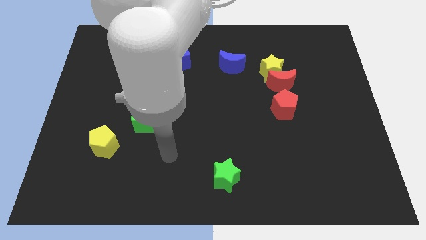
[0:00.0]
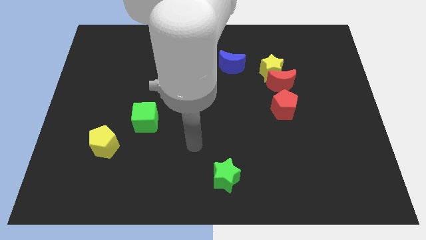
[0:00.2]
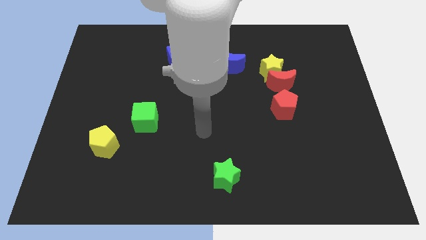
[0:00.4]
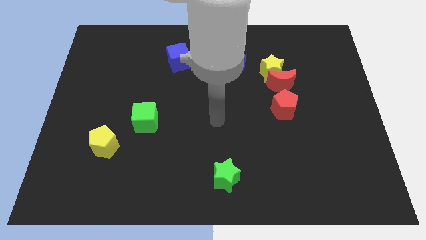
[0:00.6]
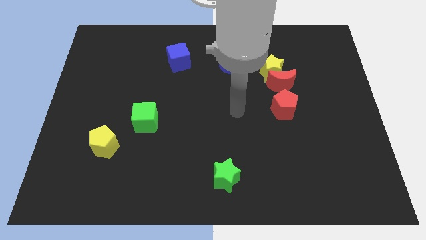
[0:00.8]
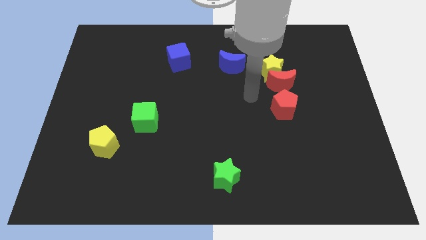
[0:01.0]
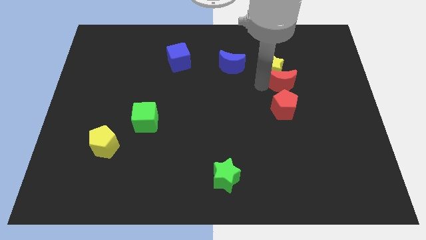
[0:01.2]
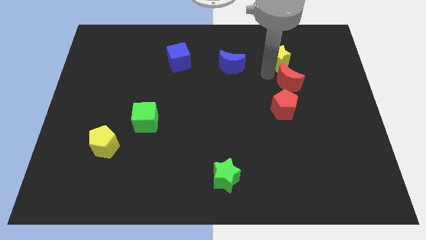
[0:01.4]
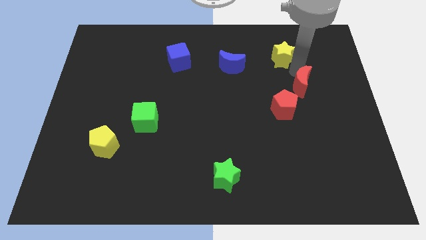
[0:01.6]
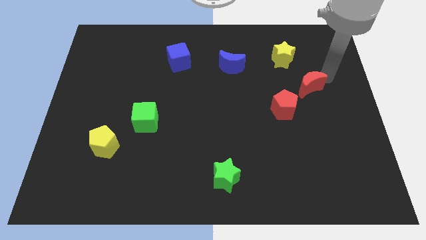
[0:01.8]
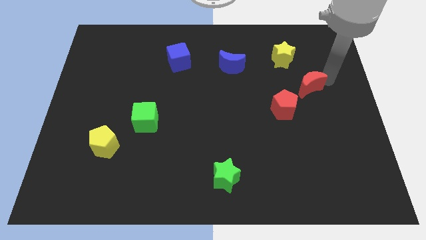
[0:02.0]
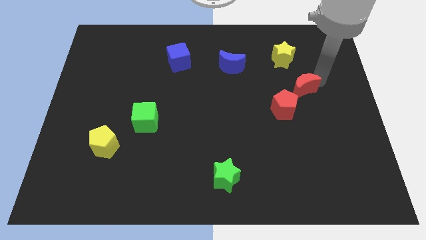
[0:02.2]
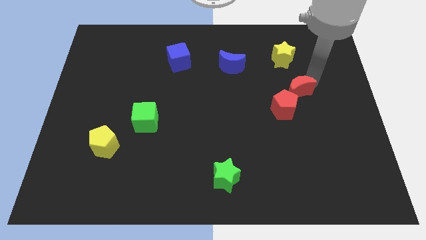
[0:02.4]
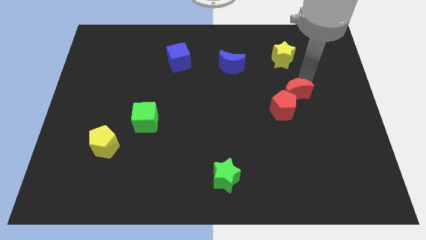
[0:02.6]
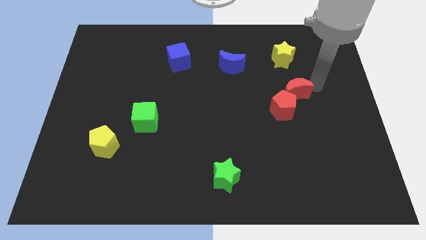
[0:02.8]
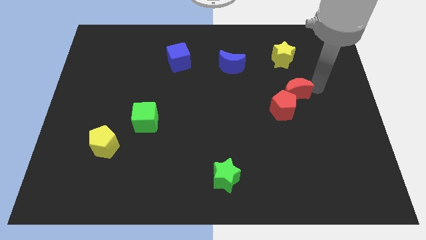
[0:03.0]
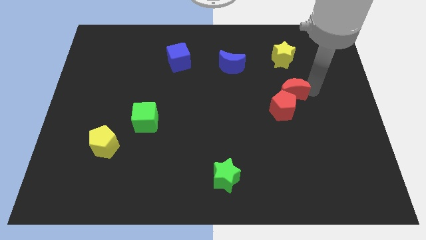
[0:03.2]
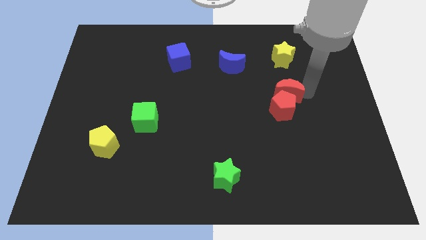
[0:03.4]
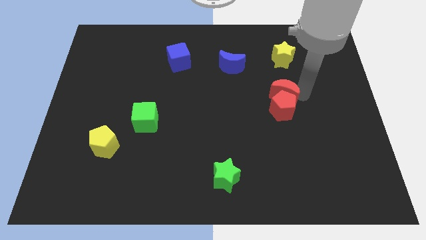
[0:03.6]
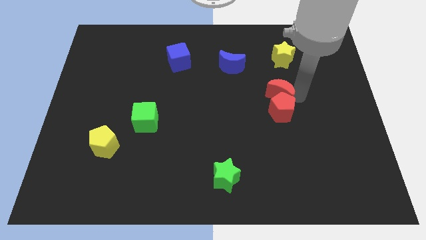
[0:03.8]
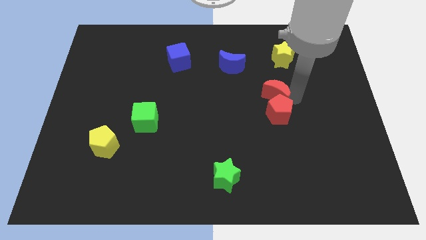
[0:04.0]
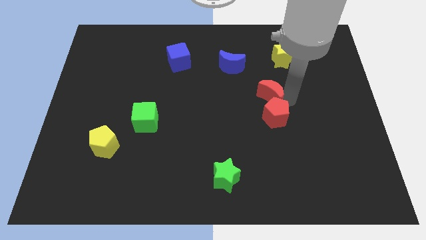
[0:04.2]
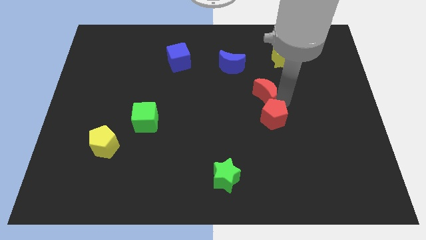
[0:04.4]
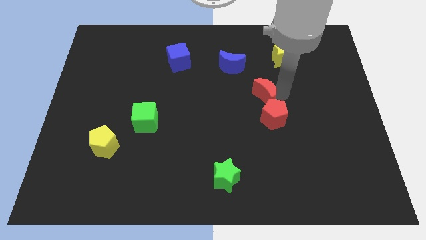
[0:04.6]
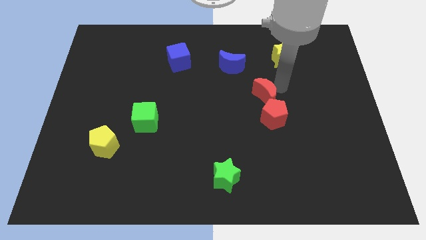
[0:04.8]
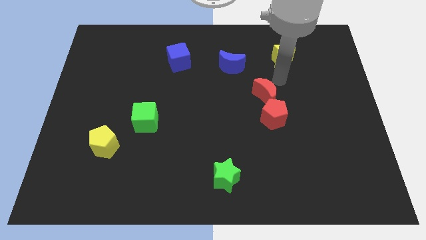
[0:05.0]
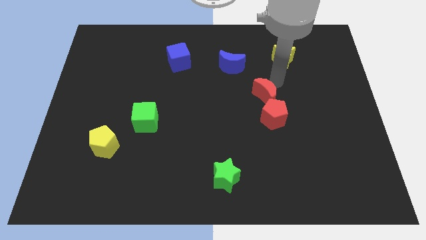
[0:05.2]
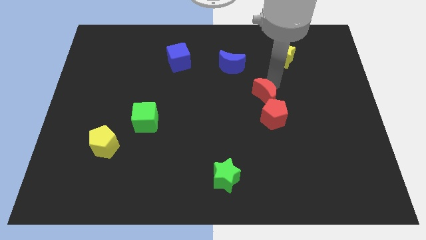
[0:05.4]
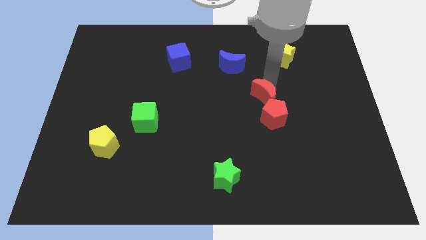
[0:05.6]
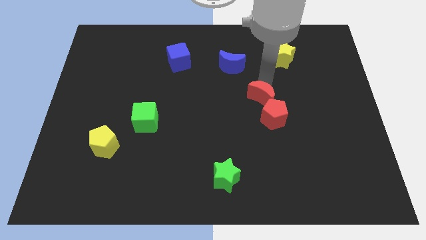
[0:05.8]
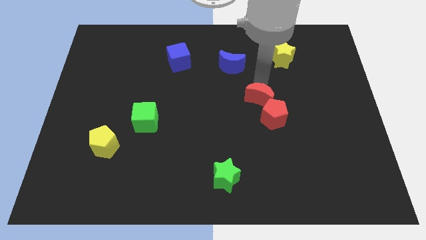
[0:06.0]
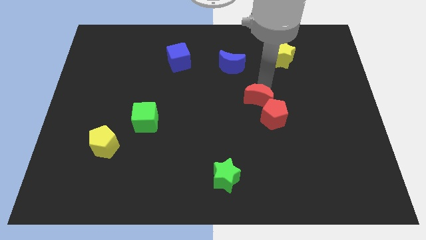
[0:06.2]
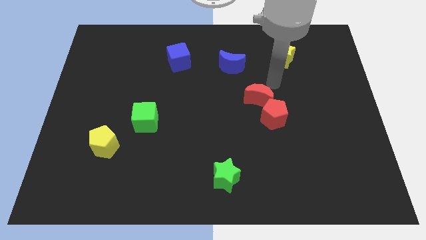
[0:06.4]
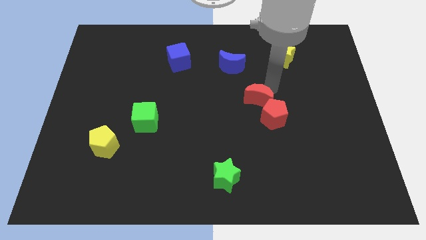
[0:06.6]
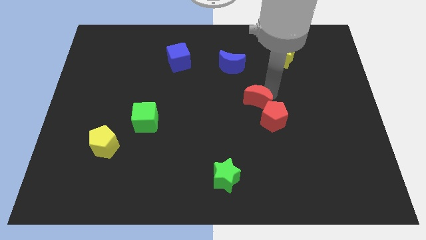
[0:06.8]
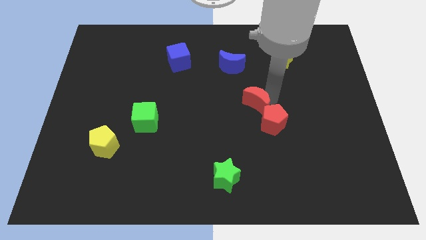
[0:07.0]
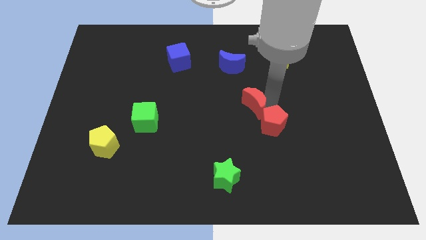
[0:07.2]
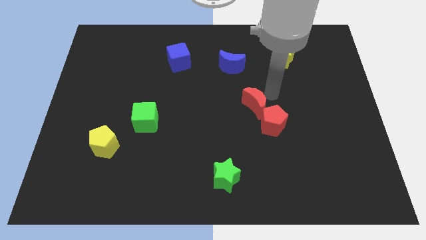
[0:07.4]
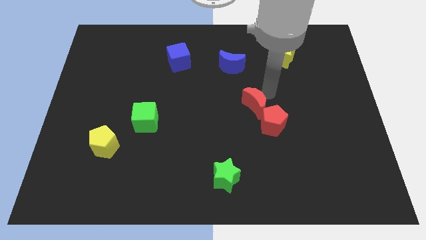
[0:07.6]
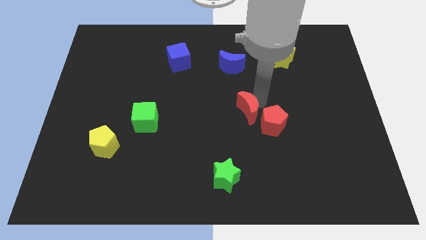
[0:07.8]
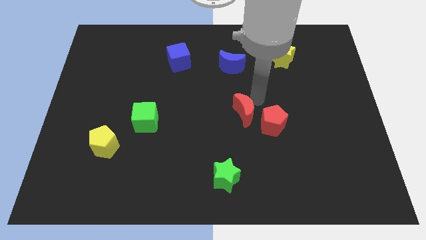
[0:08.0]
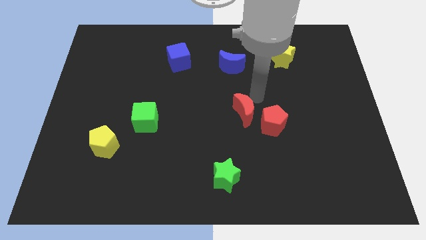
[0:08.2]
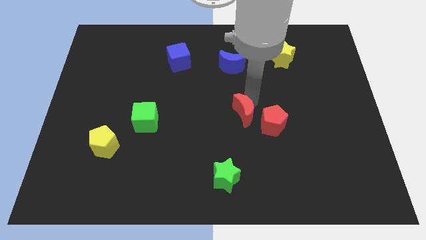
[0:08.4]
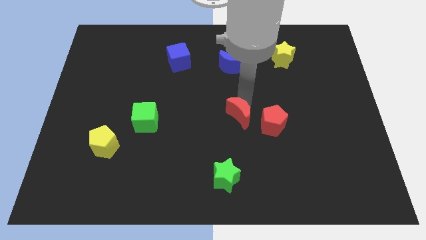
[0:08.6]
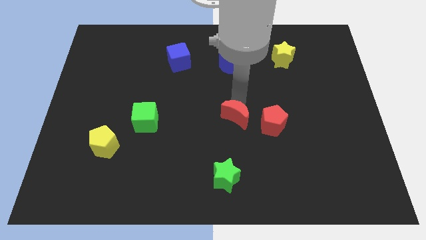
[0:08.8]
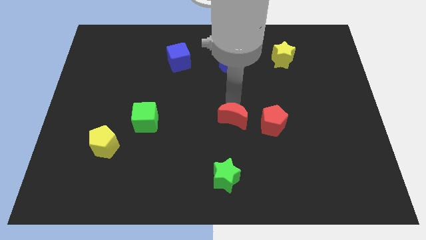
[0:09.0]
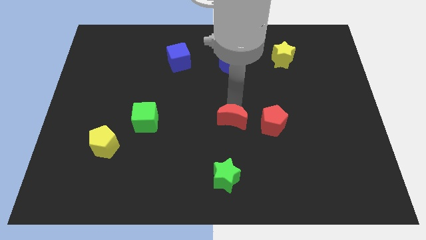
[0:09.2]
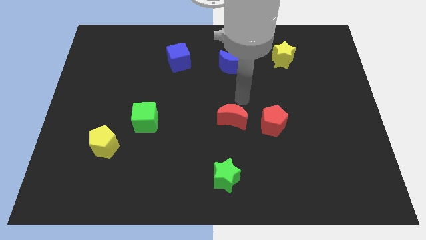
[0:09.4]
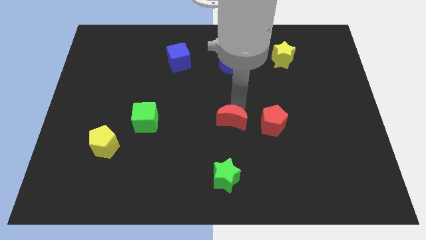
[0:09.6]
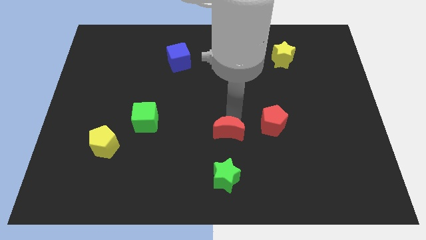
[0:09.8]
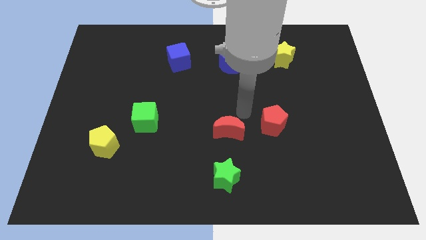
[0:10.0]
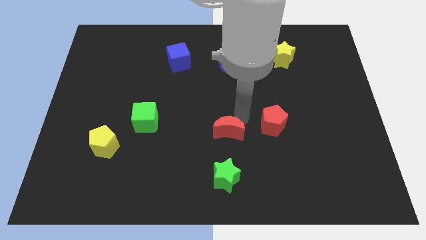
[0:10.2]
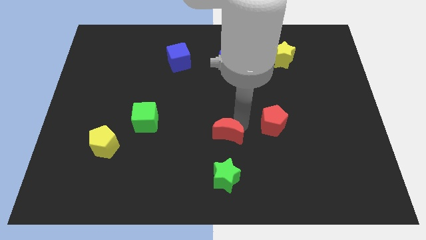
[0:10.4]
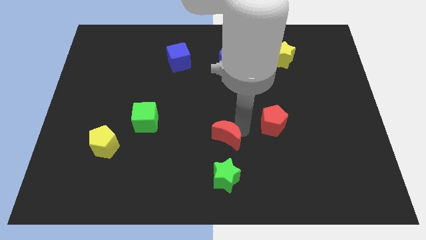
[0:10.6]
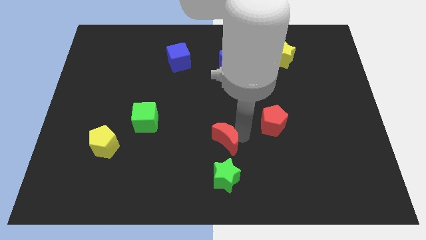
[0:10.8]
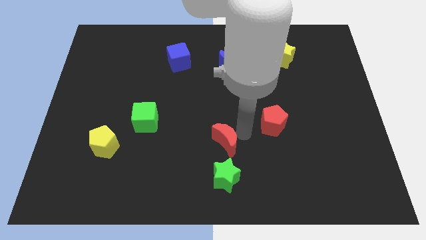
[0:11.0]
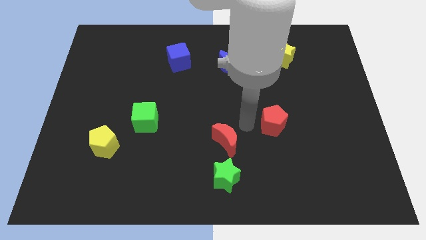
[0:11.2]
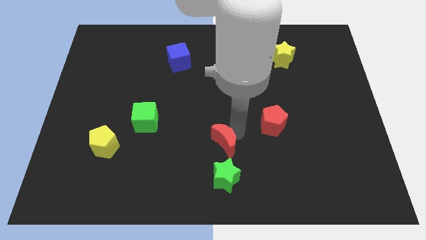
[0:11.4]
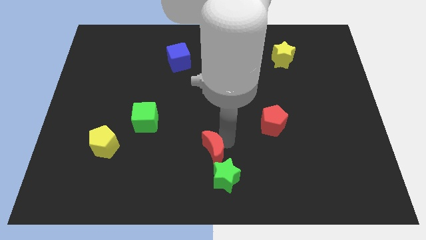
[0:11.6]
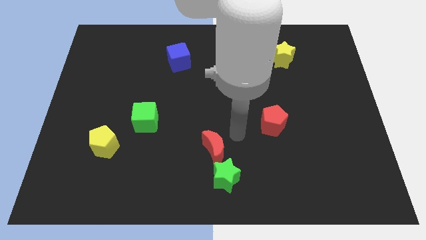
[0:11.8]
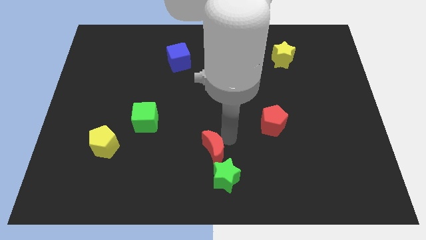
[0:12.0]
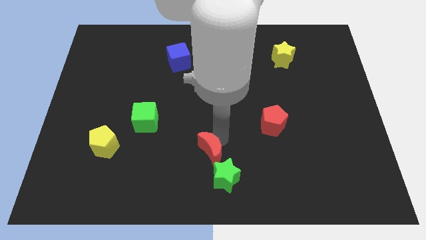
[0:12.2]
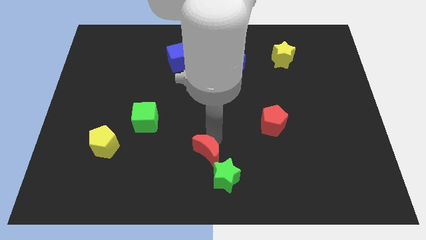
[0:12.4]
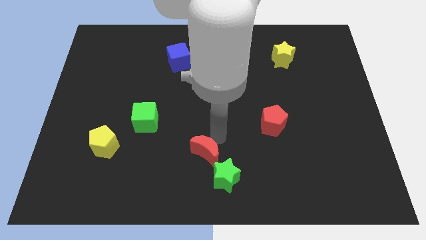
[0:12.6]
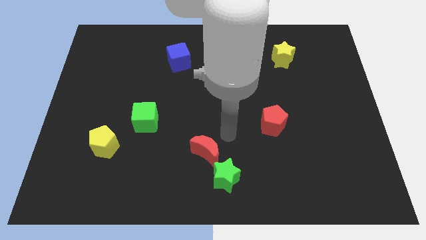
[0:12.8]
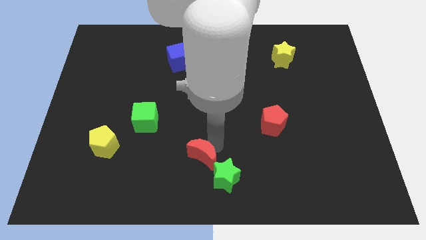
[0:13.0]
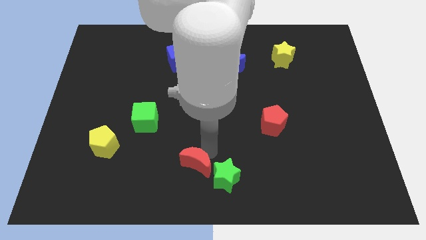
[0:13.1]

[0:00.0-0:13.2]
slide the red moon to the left side of the green star
